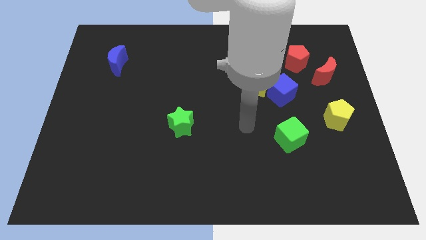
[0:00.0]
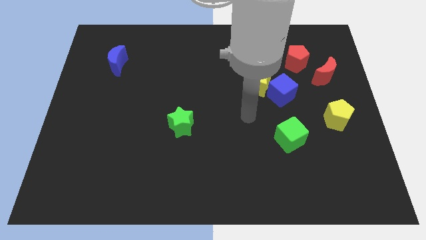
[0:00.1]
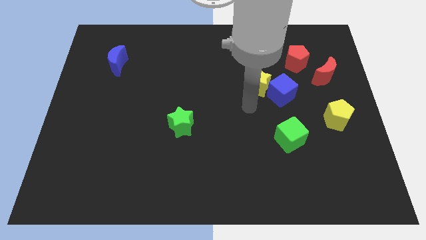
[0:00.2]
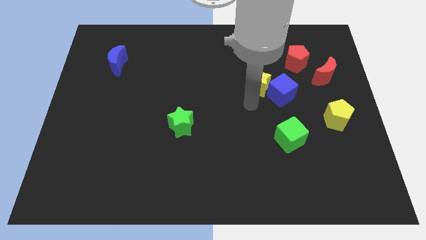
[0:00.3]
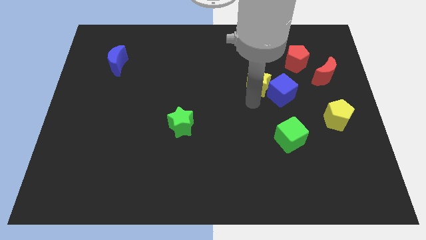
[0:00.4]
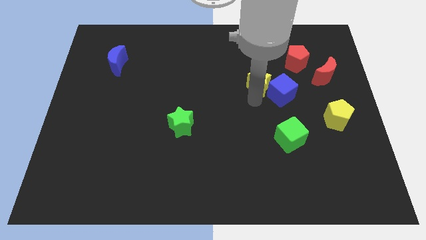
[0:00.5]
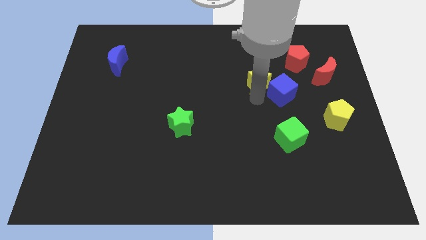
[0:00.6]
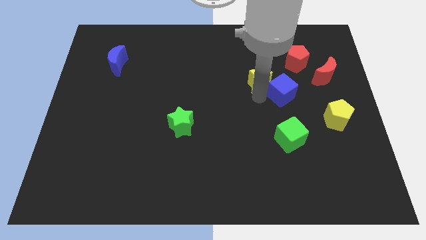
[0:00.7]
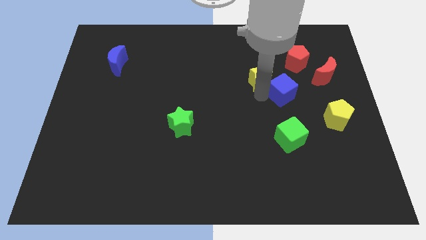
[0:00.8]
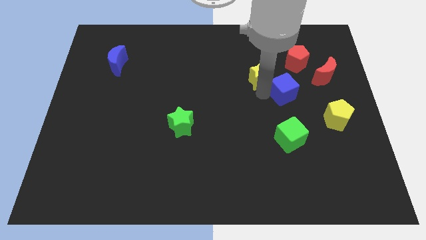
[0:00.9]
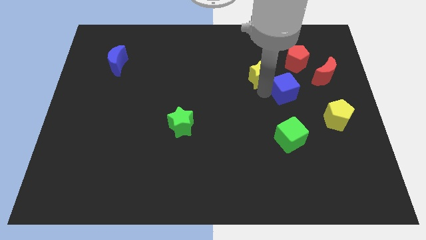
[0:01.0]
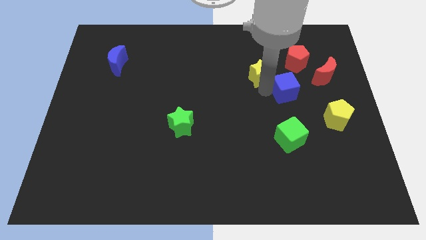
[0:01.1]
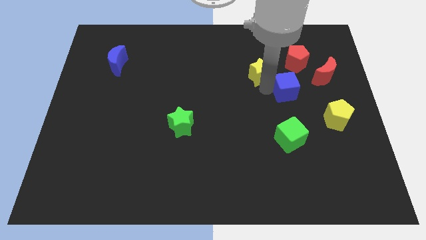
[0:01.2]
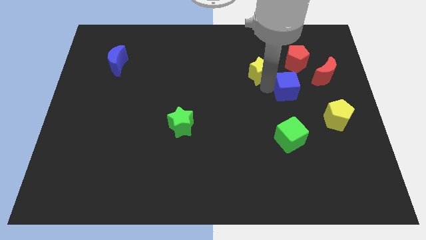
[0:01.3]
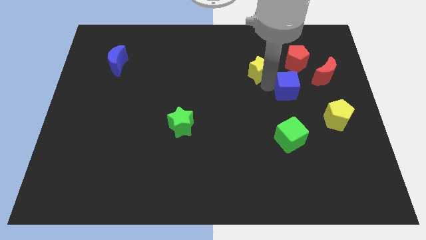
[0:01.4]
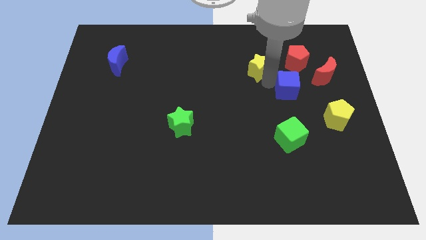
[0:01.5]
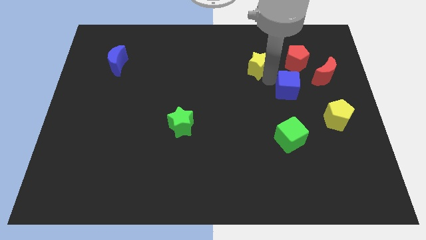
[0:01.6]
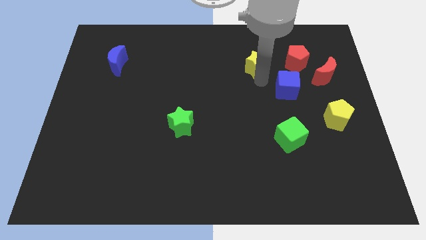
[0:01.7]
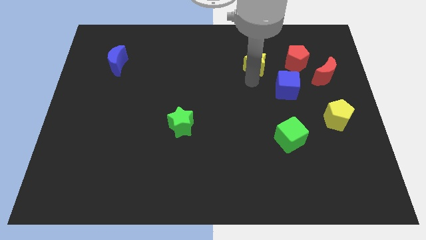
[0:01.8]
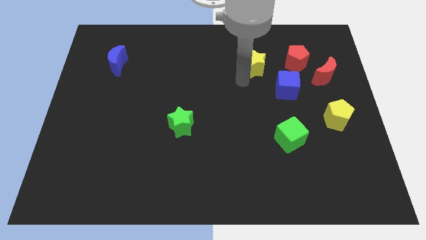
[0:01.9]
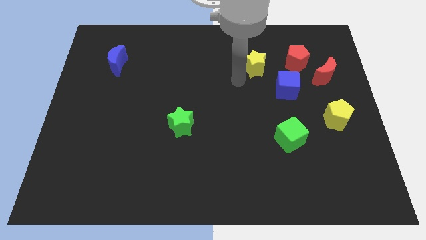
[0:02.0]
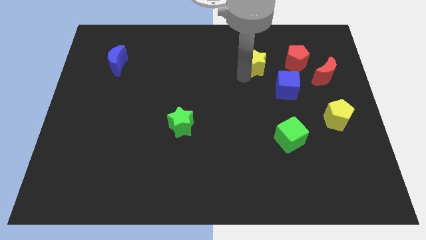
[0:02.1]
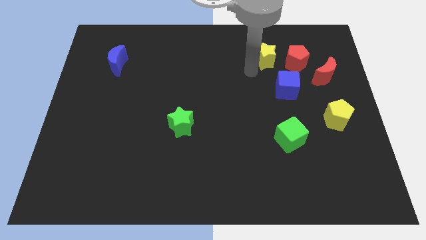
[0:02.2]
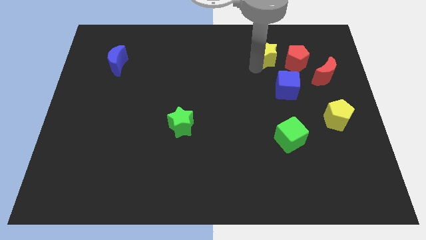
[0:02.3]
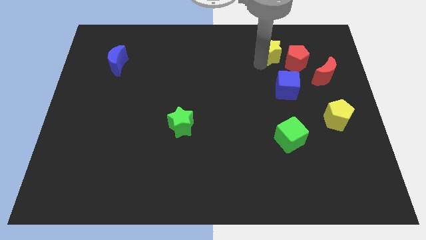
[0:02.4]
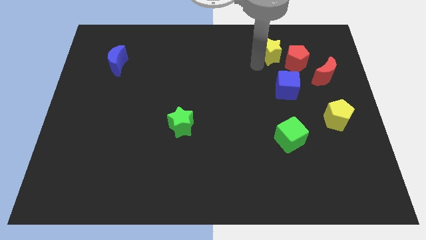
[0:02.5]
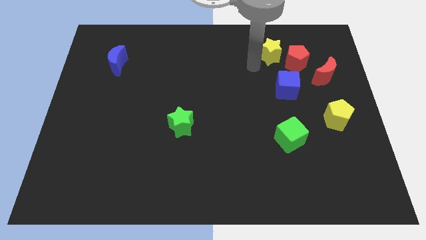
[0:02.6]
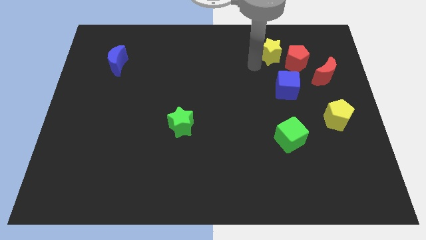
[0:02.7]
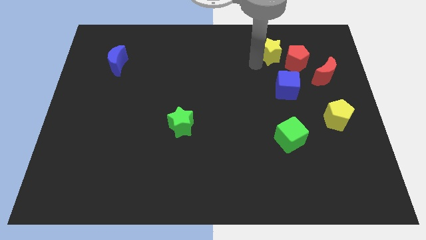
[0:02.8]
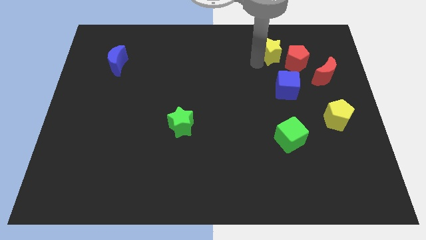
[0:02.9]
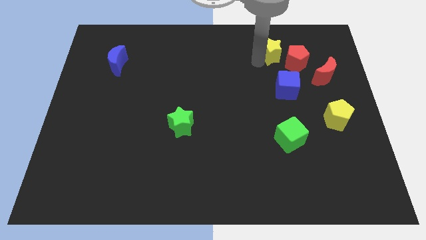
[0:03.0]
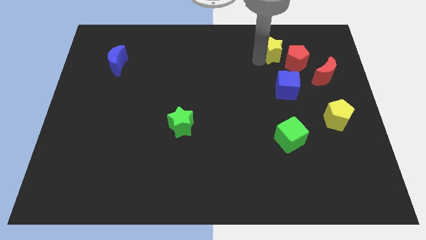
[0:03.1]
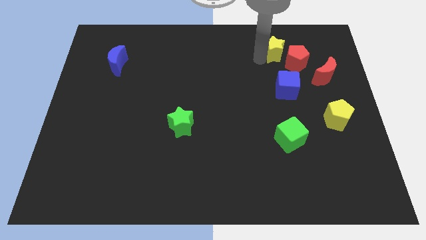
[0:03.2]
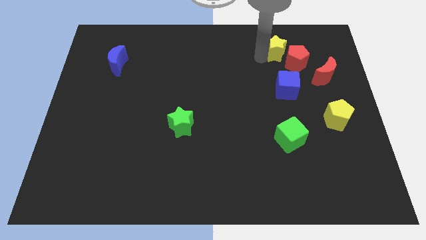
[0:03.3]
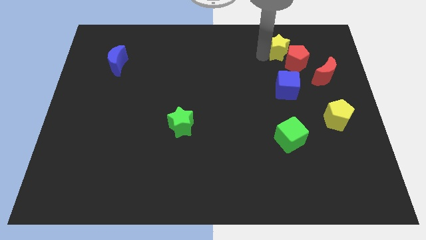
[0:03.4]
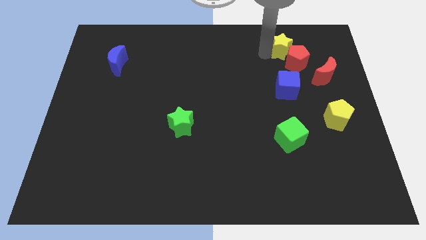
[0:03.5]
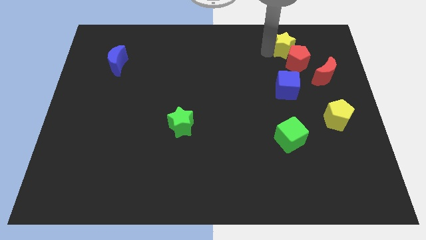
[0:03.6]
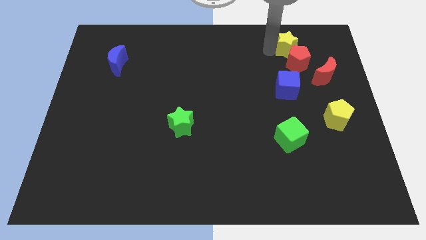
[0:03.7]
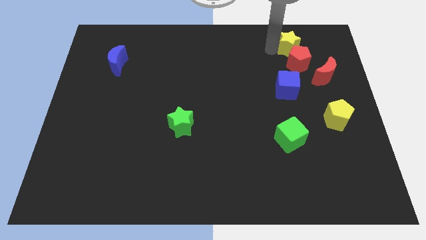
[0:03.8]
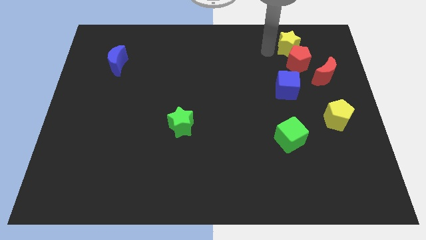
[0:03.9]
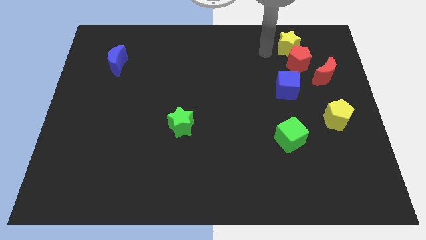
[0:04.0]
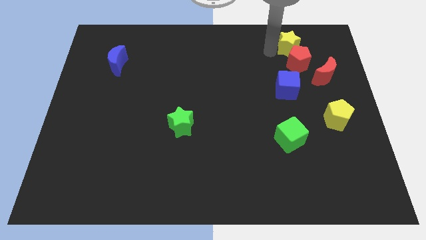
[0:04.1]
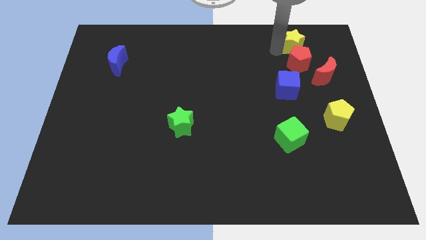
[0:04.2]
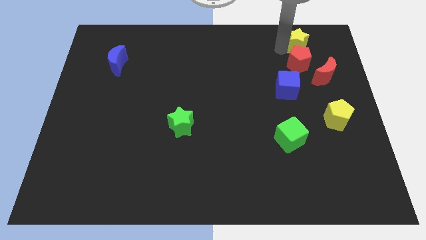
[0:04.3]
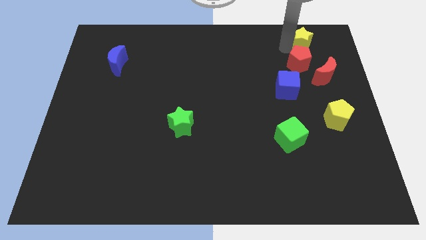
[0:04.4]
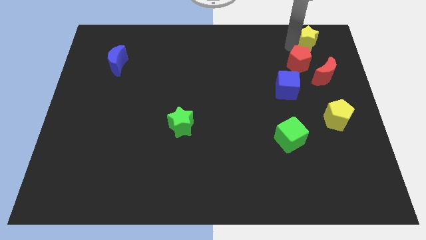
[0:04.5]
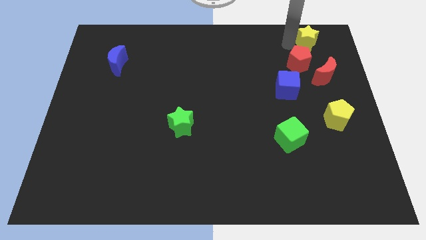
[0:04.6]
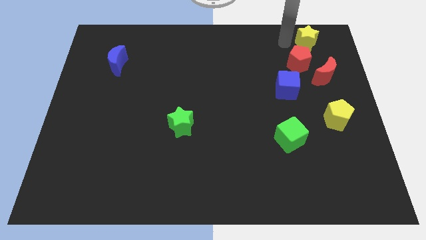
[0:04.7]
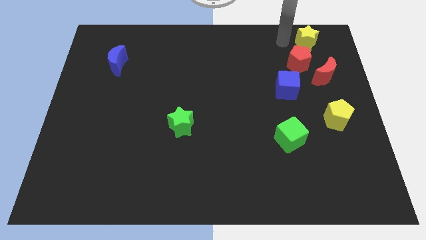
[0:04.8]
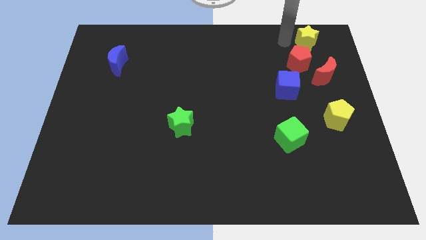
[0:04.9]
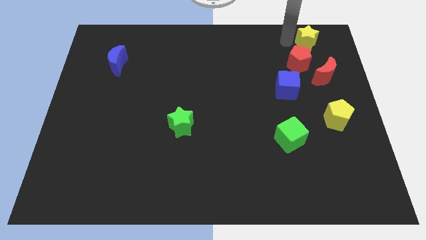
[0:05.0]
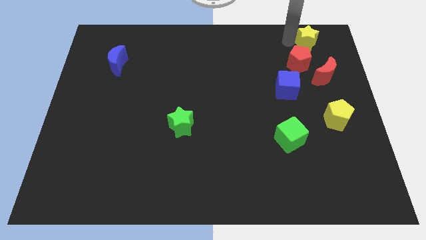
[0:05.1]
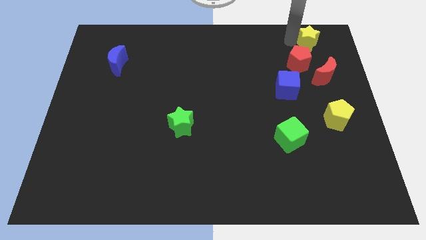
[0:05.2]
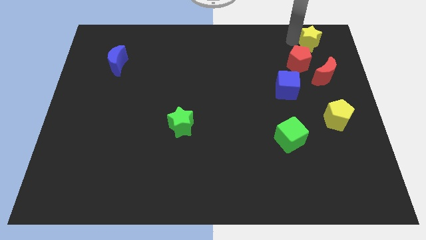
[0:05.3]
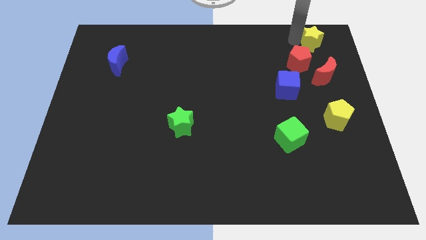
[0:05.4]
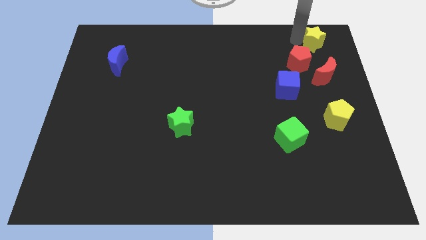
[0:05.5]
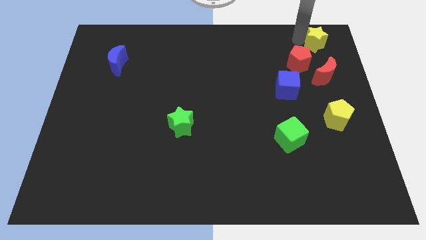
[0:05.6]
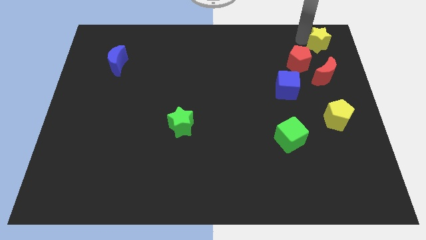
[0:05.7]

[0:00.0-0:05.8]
slide the yellow star to the upper right corner

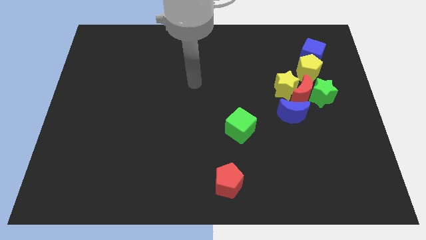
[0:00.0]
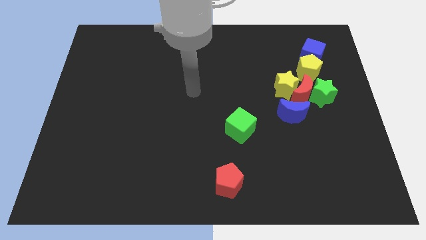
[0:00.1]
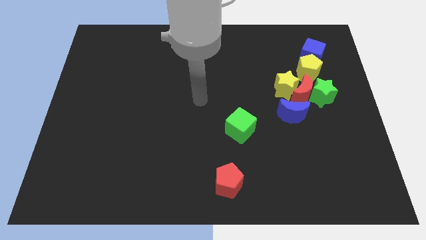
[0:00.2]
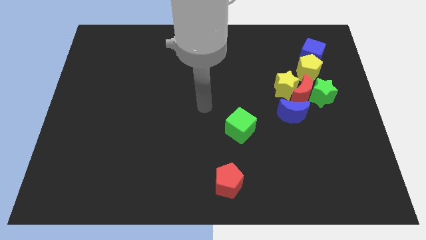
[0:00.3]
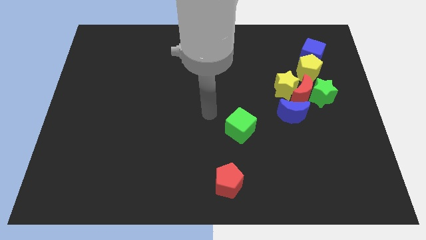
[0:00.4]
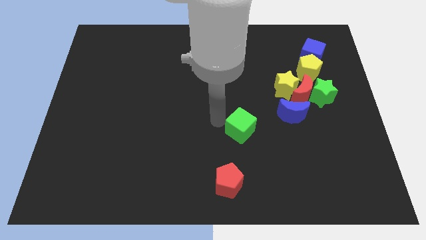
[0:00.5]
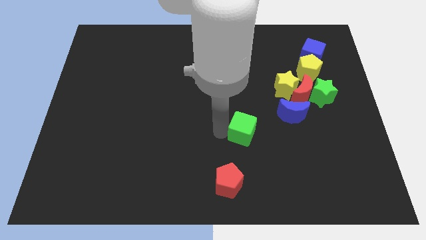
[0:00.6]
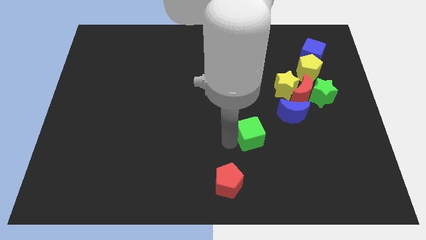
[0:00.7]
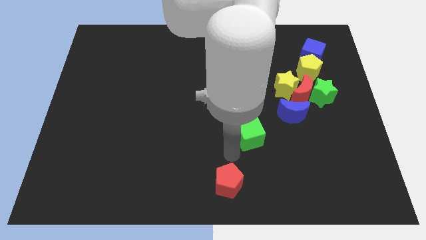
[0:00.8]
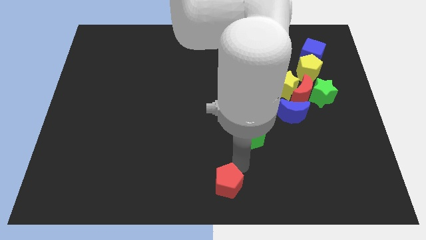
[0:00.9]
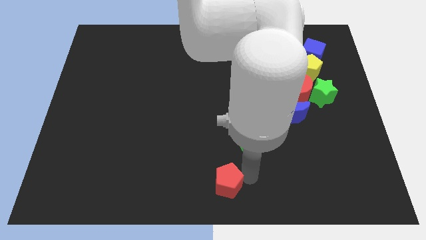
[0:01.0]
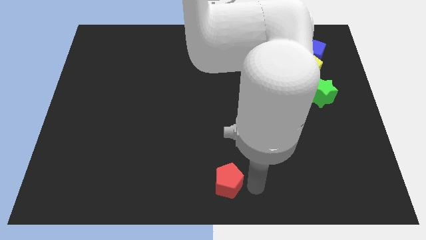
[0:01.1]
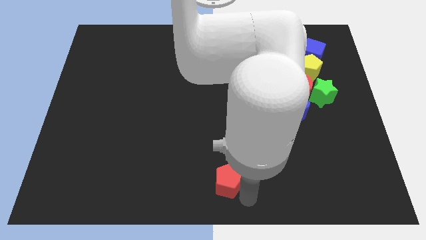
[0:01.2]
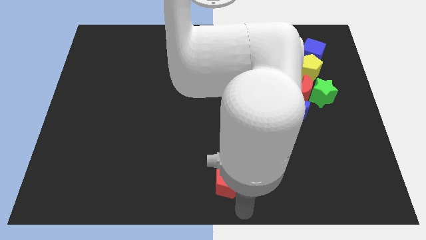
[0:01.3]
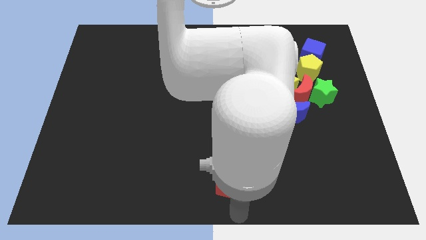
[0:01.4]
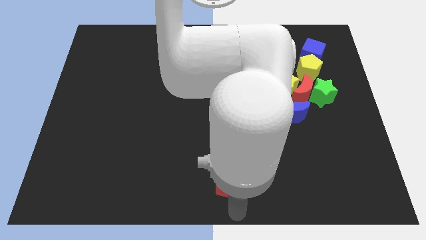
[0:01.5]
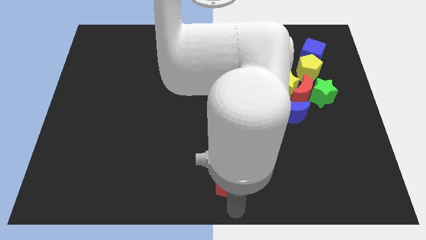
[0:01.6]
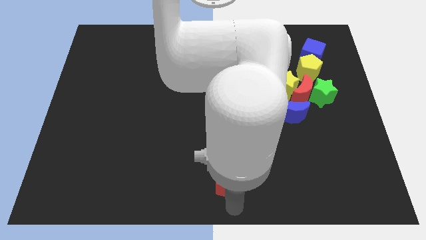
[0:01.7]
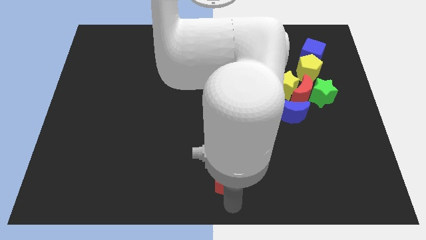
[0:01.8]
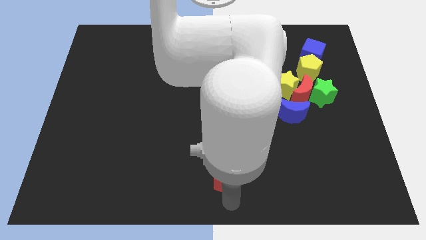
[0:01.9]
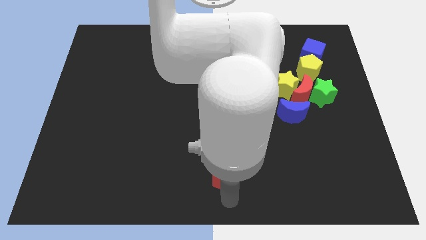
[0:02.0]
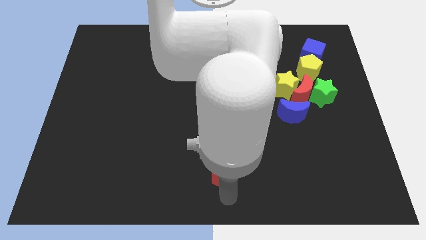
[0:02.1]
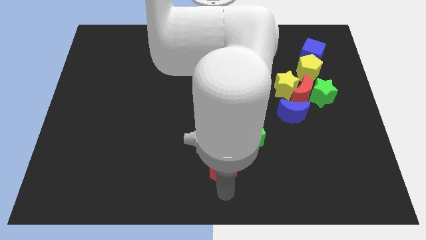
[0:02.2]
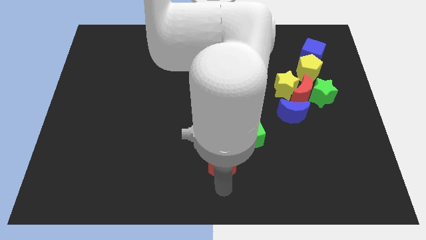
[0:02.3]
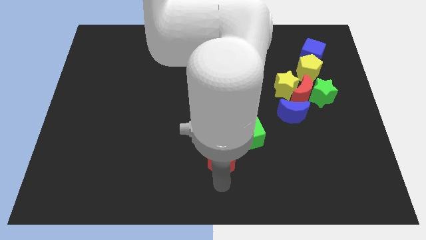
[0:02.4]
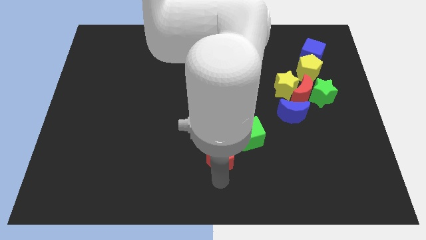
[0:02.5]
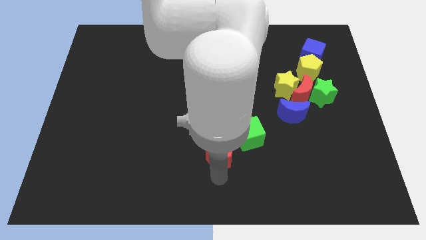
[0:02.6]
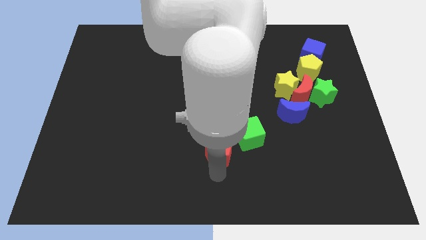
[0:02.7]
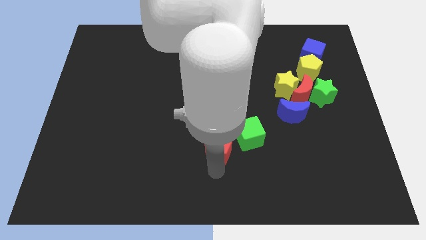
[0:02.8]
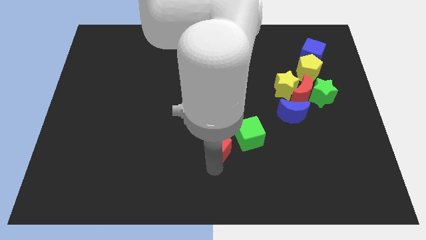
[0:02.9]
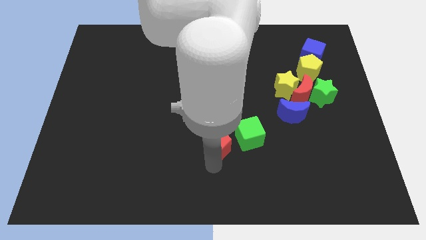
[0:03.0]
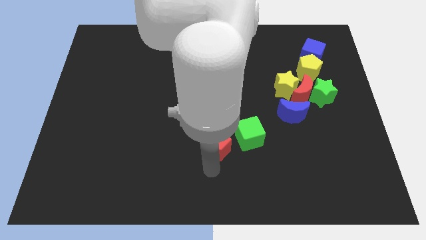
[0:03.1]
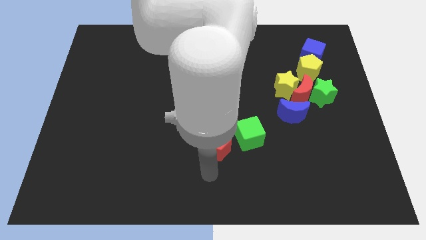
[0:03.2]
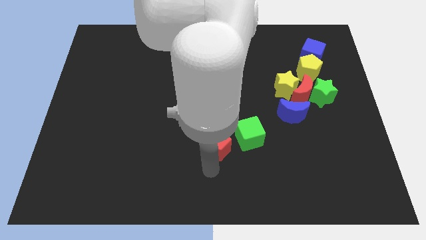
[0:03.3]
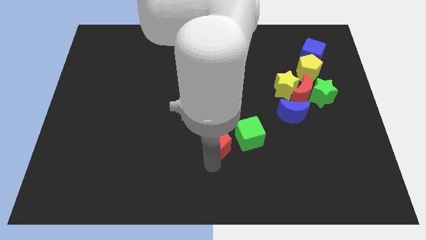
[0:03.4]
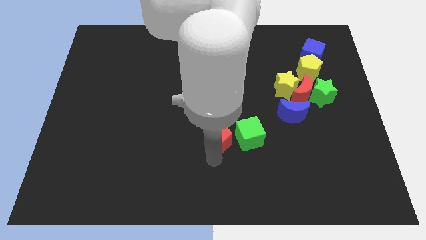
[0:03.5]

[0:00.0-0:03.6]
put the red pentagon to the center of the board
